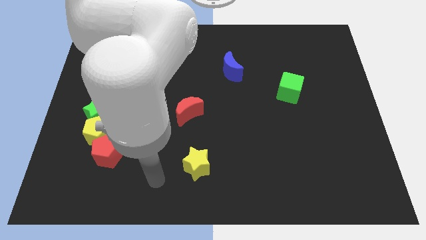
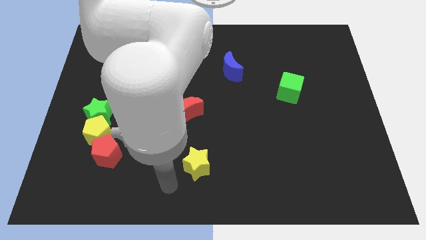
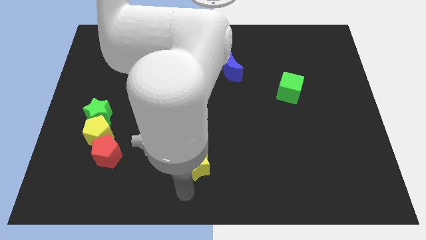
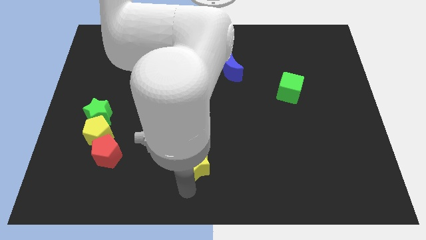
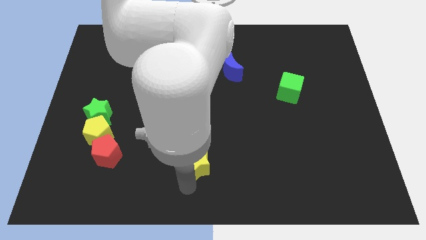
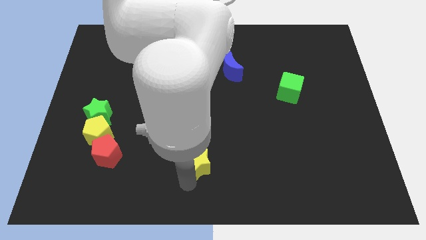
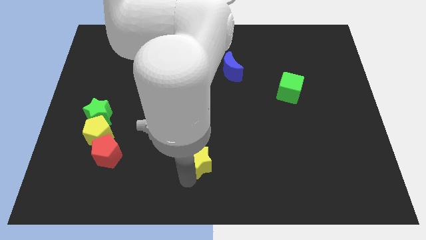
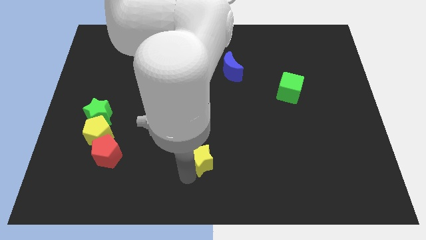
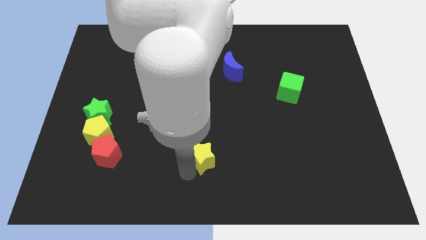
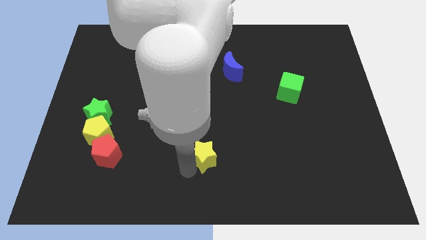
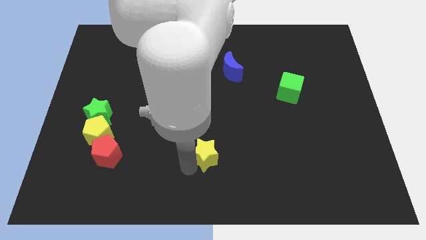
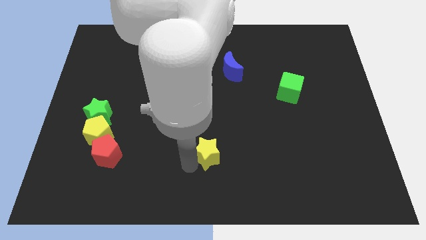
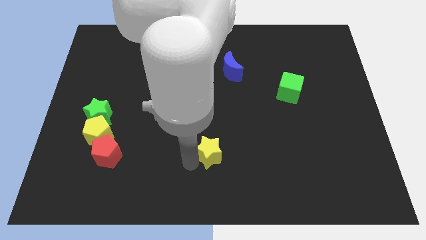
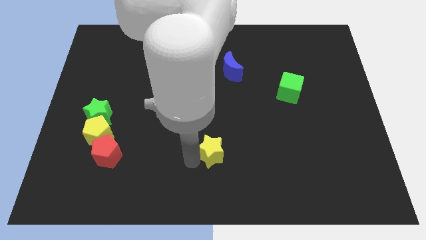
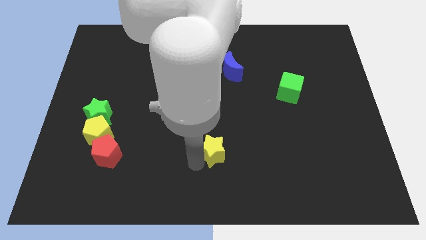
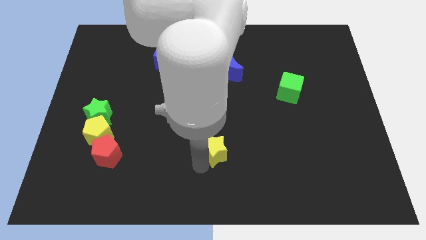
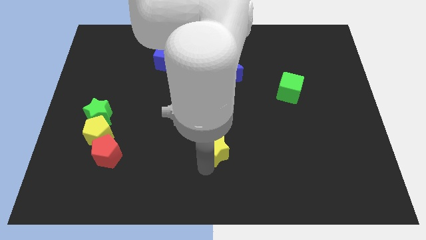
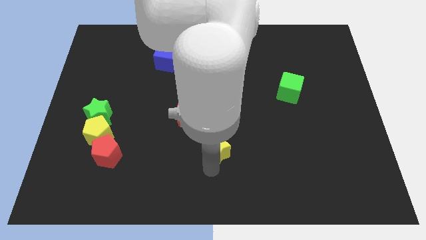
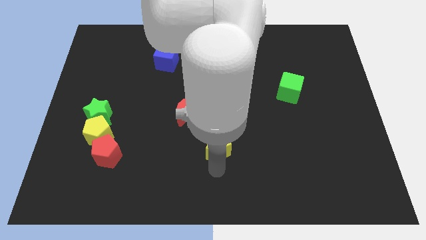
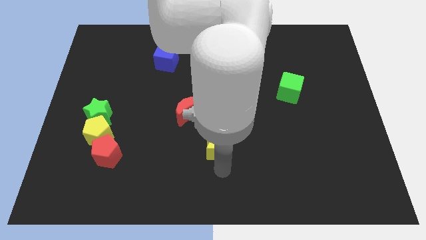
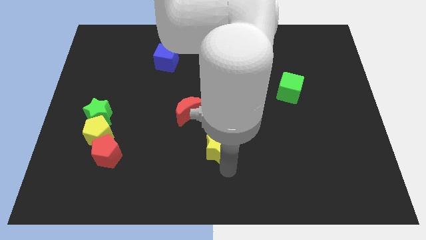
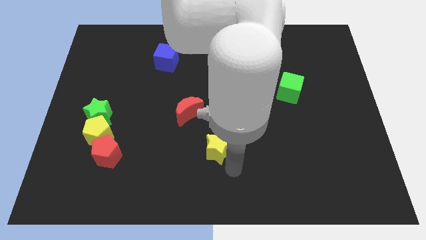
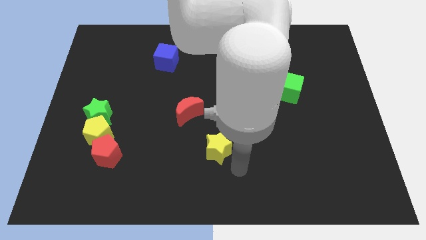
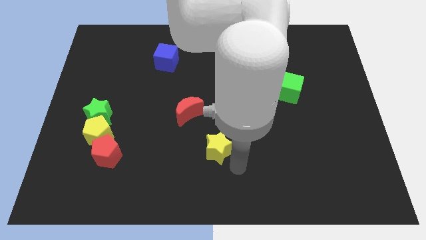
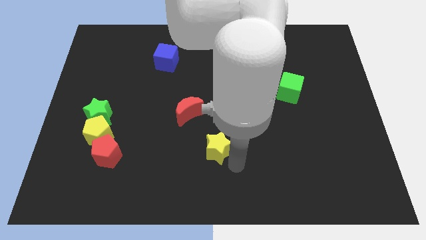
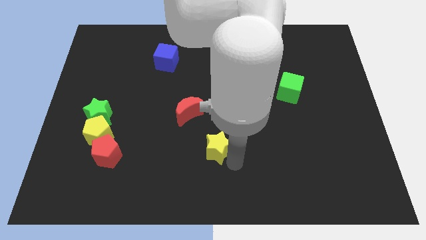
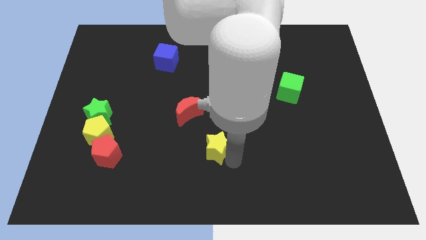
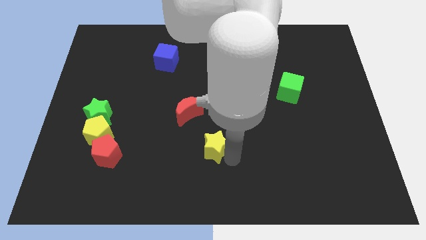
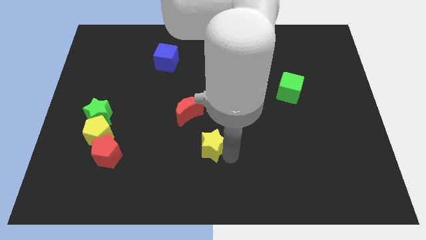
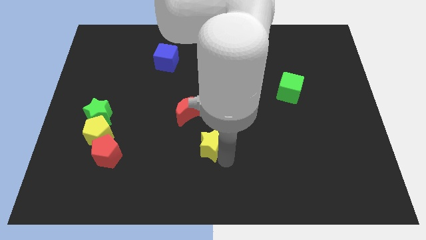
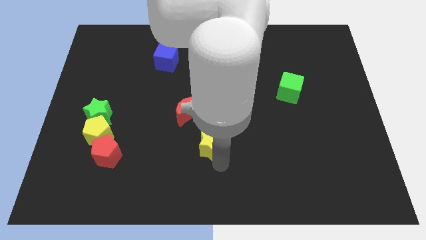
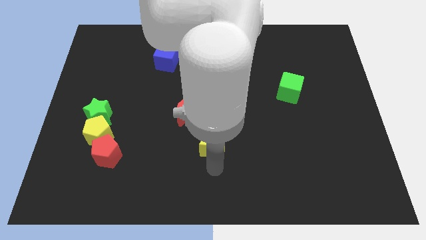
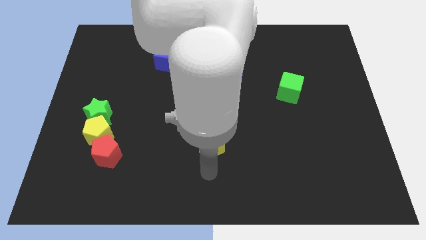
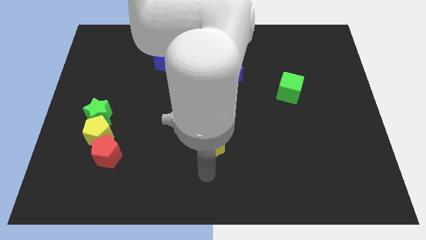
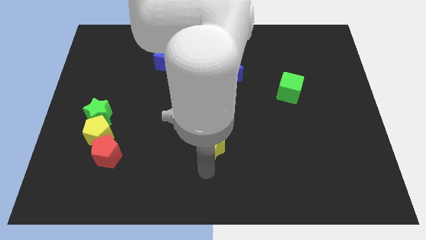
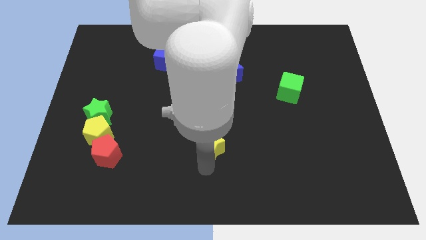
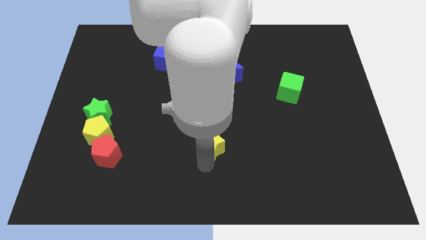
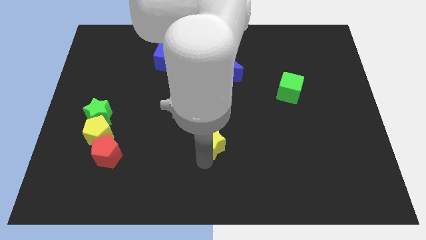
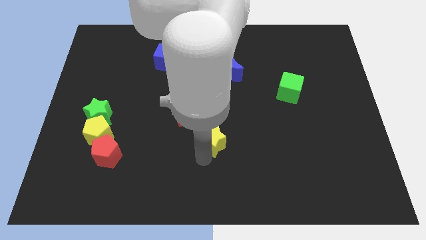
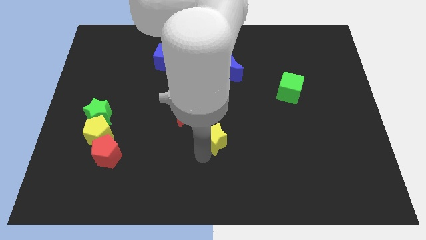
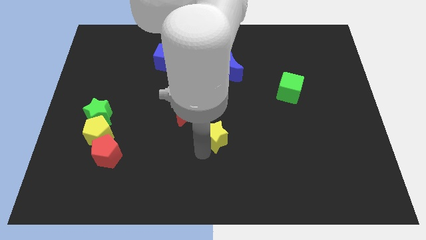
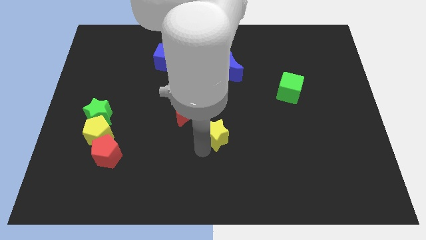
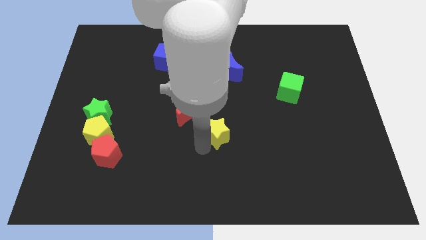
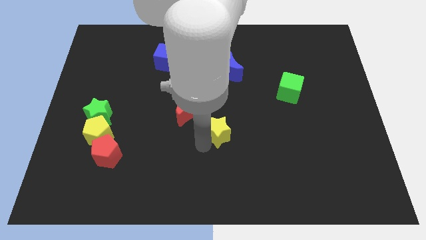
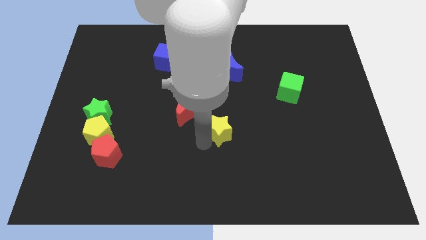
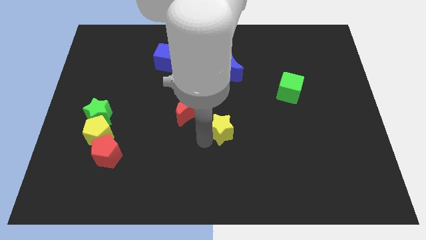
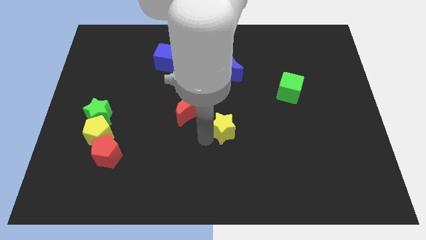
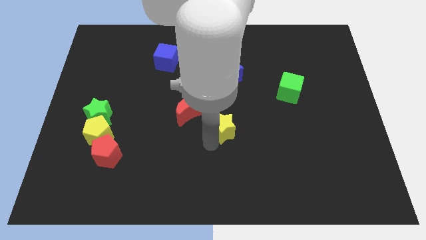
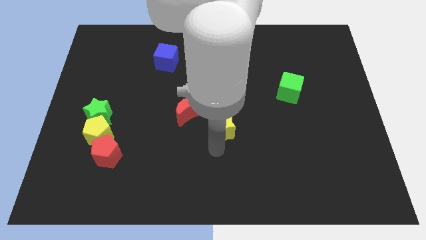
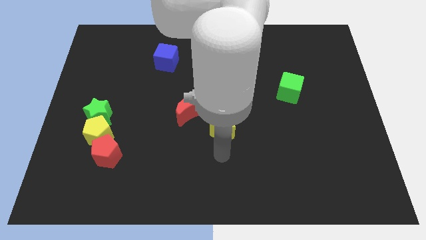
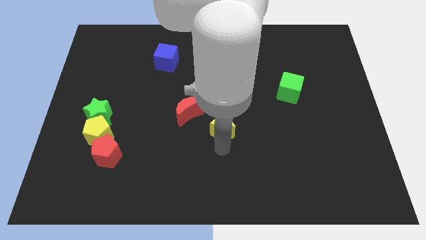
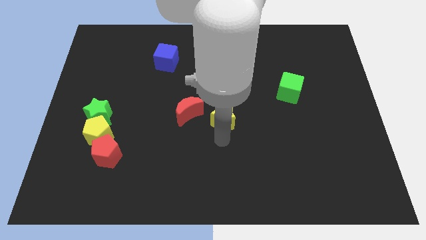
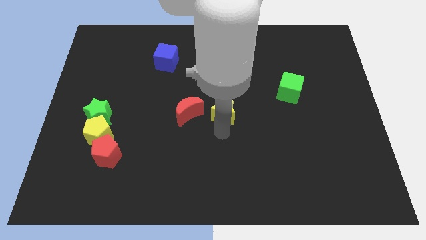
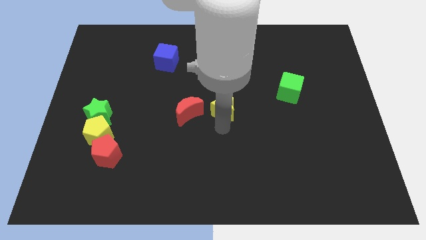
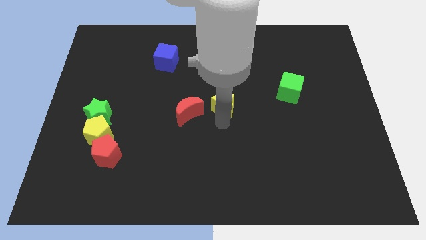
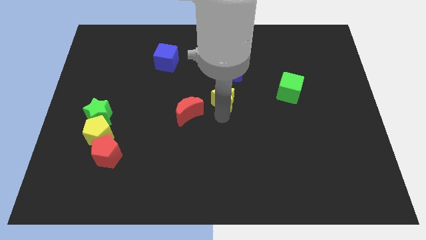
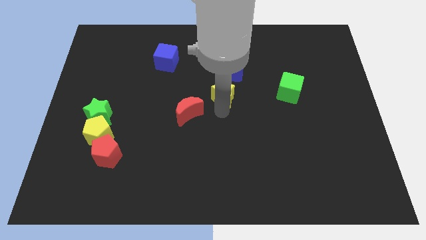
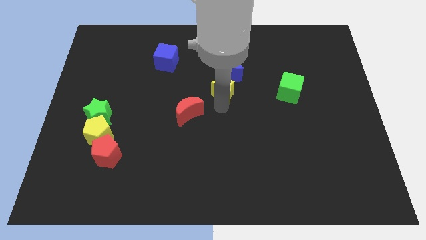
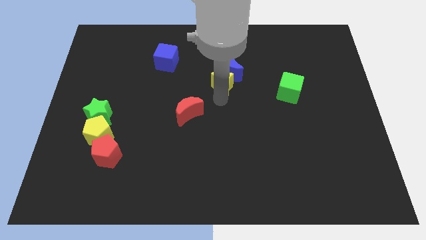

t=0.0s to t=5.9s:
push the yellow star towards the blue moon

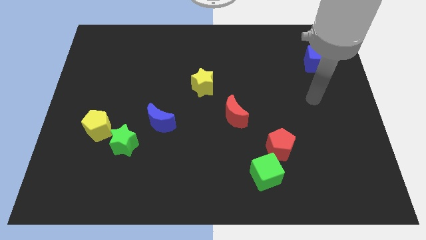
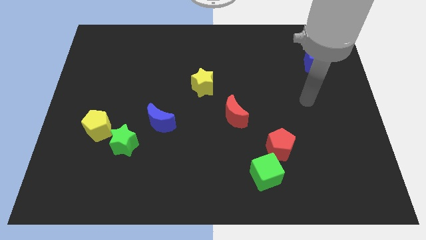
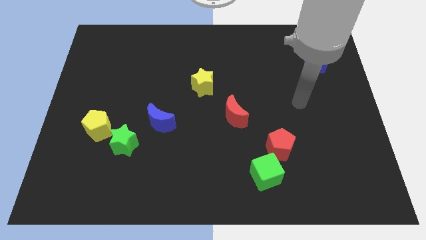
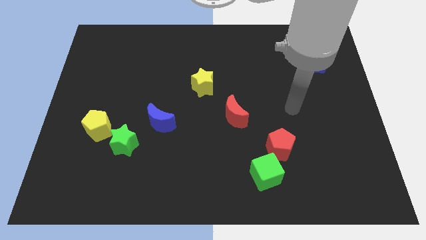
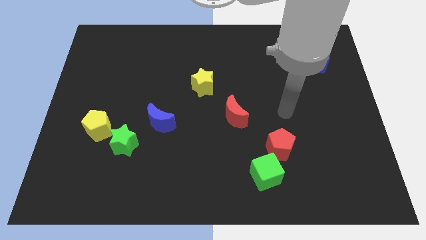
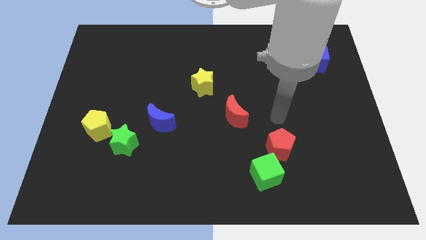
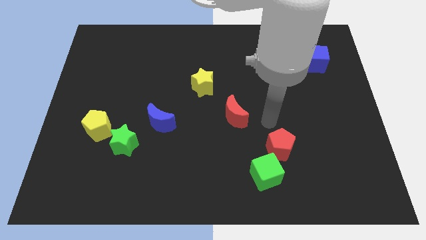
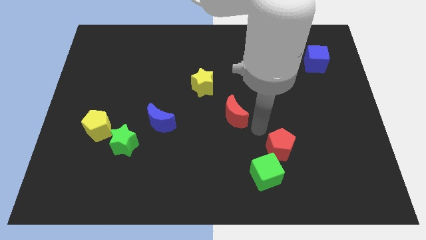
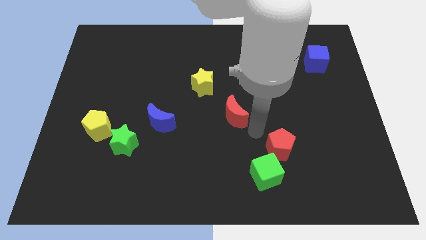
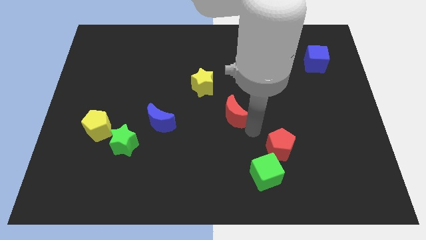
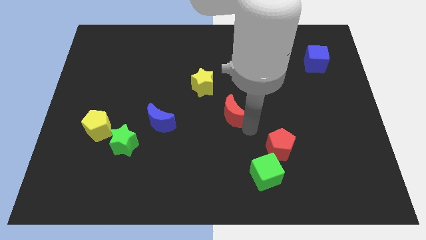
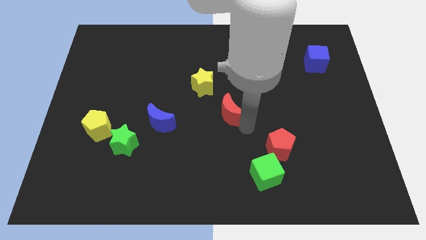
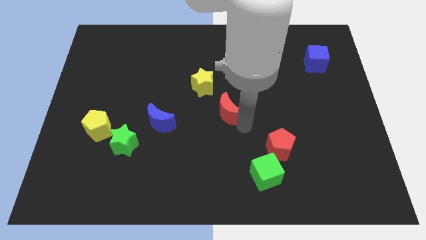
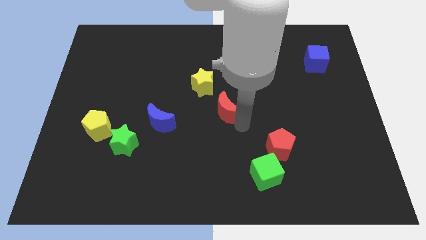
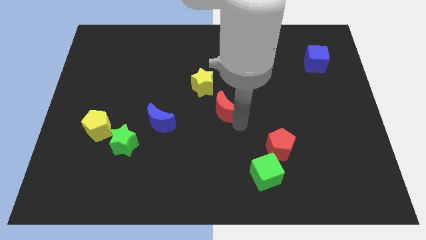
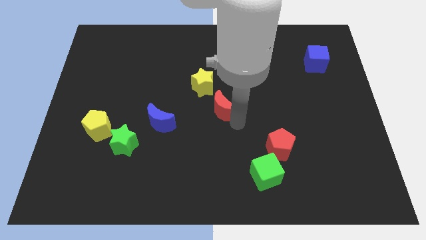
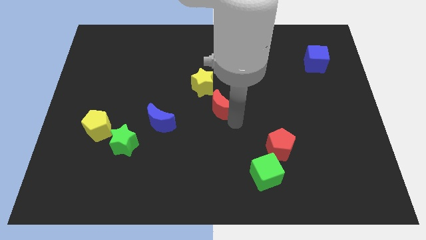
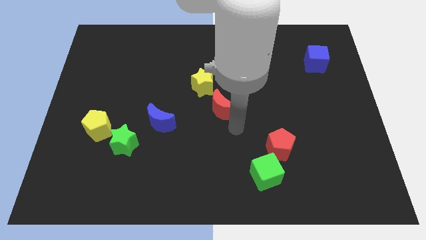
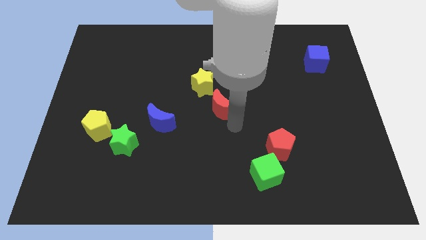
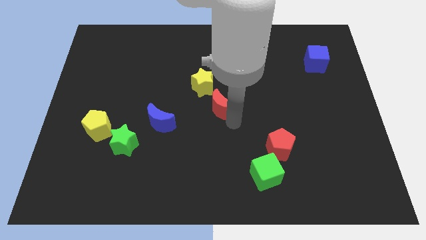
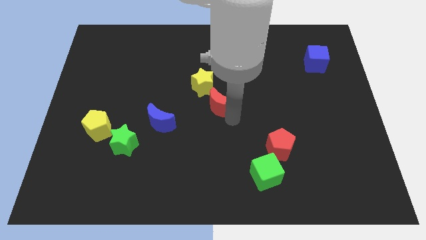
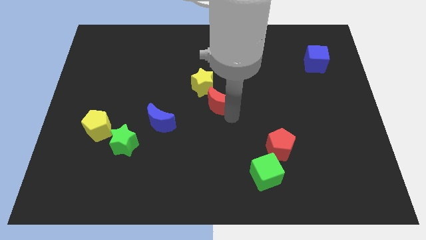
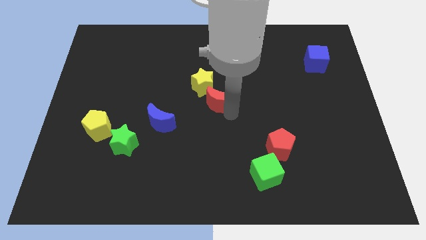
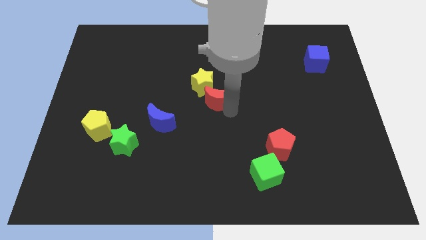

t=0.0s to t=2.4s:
move the red moon close to the yellow star
